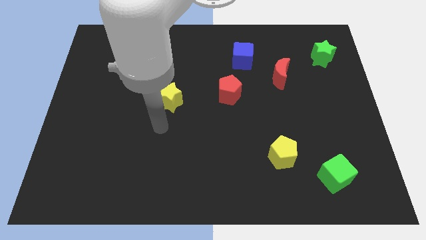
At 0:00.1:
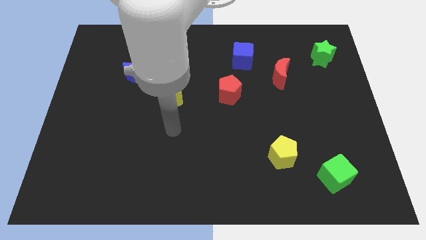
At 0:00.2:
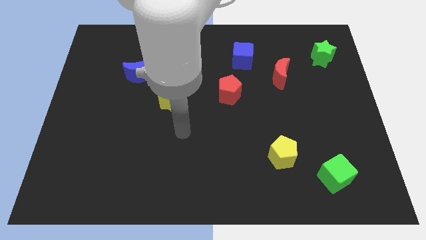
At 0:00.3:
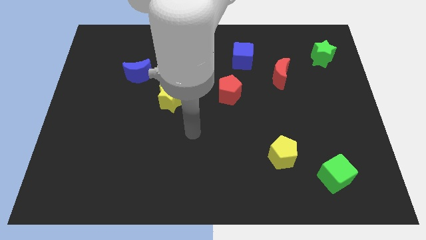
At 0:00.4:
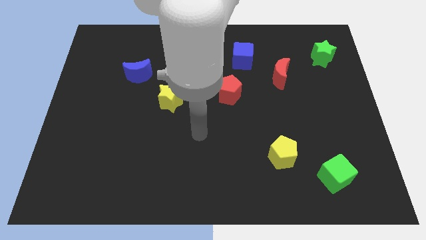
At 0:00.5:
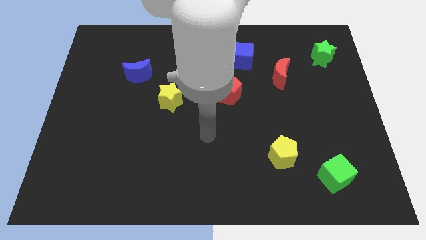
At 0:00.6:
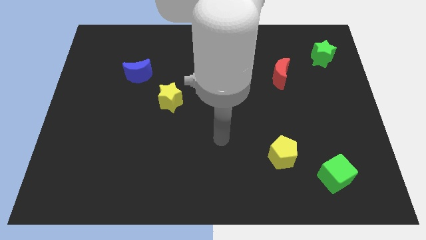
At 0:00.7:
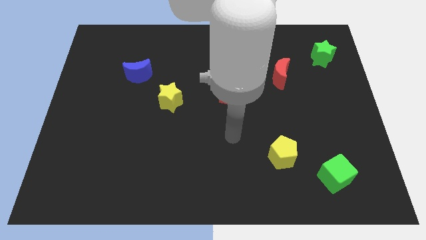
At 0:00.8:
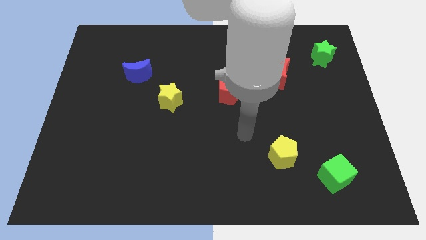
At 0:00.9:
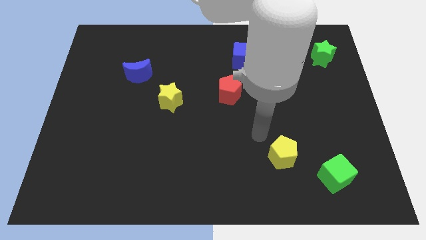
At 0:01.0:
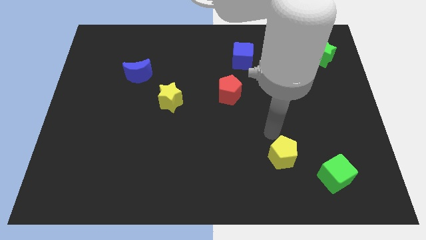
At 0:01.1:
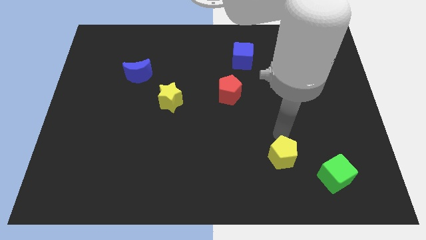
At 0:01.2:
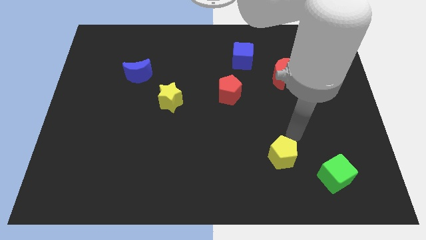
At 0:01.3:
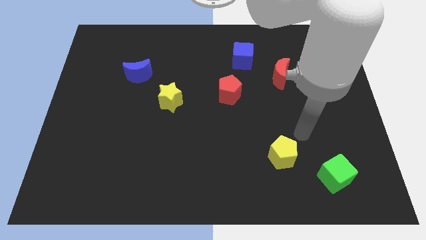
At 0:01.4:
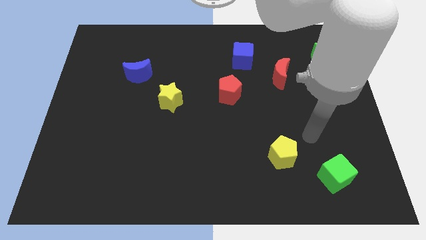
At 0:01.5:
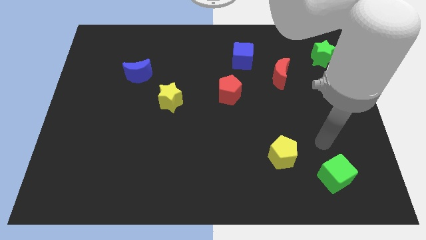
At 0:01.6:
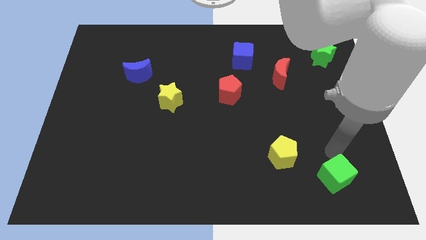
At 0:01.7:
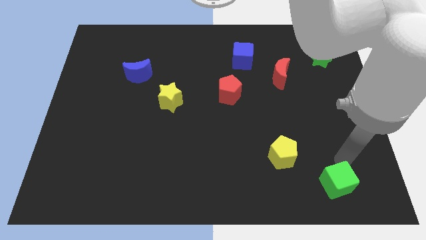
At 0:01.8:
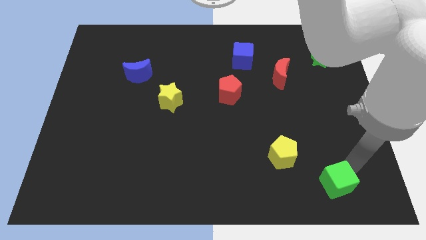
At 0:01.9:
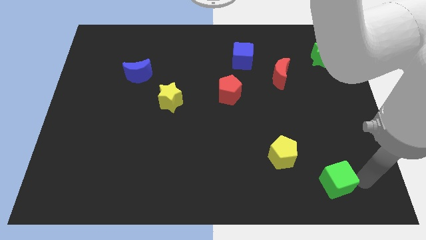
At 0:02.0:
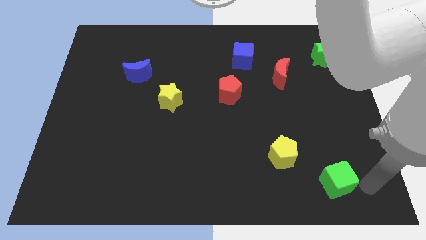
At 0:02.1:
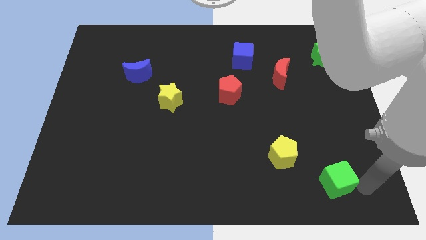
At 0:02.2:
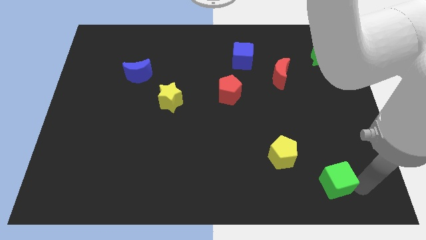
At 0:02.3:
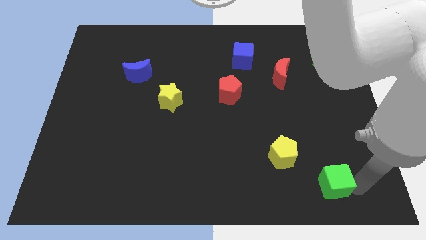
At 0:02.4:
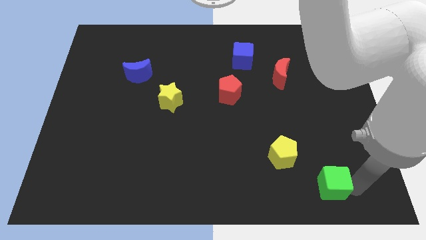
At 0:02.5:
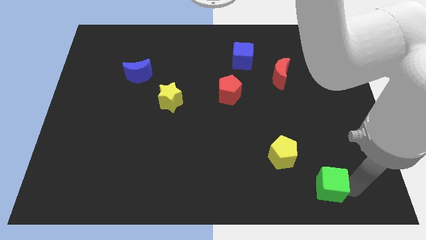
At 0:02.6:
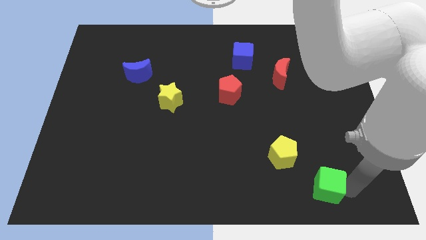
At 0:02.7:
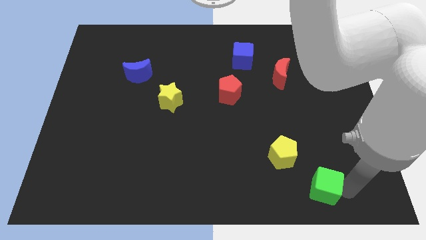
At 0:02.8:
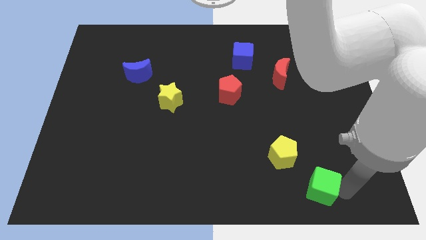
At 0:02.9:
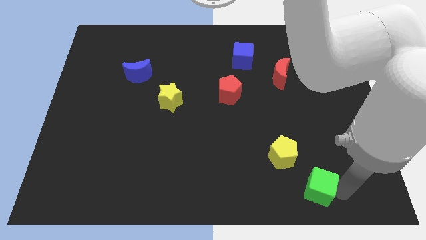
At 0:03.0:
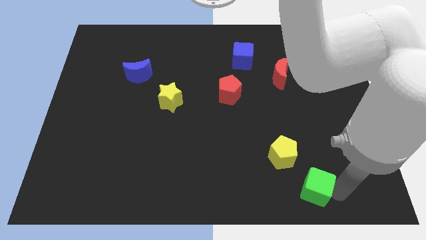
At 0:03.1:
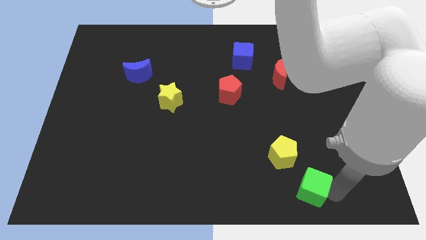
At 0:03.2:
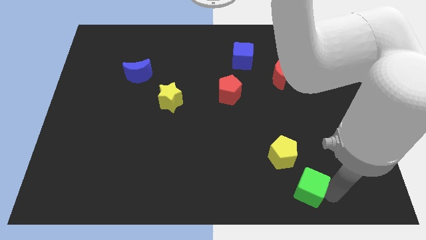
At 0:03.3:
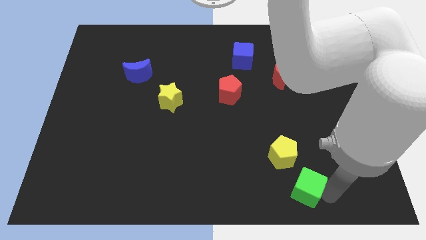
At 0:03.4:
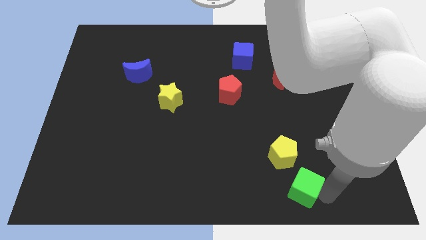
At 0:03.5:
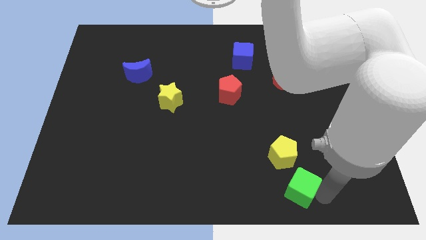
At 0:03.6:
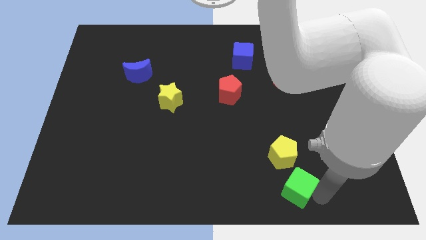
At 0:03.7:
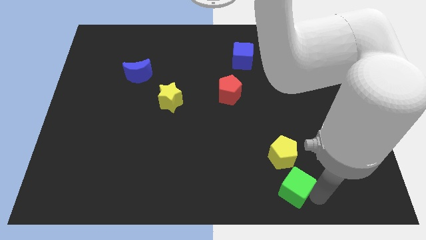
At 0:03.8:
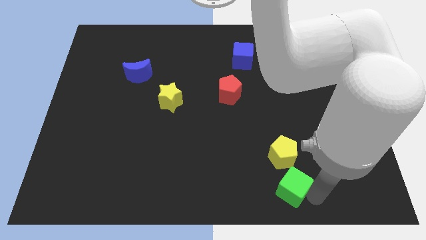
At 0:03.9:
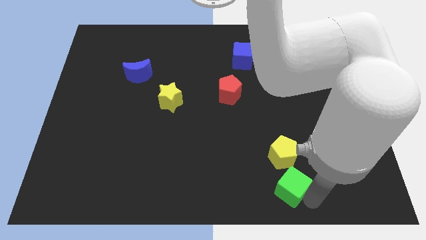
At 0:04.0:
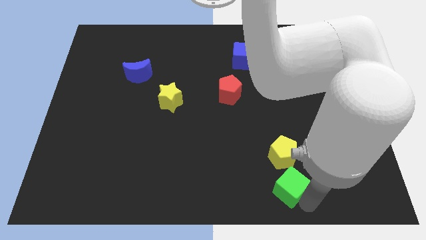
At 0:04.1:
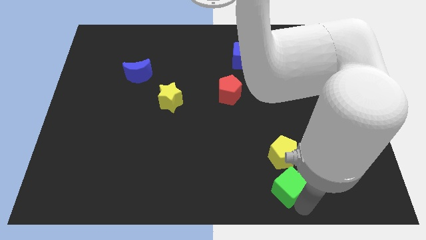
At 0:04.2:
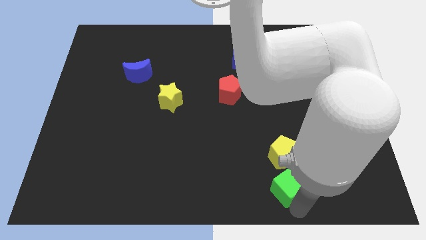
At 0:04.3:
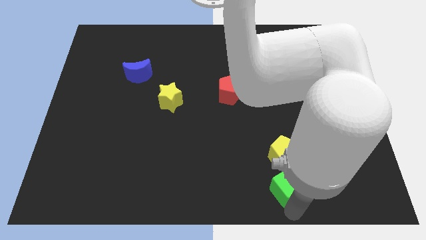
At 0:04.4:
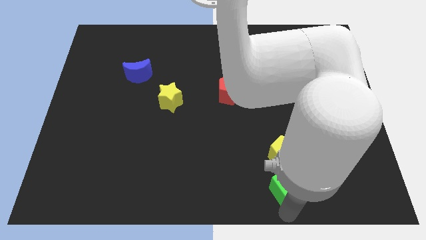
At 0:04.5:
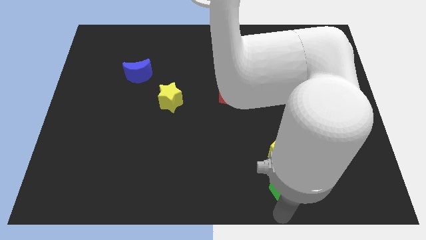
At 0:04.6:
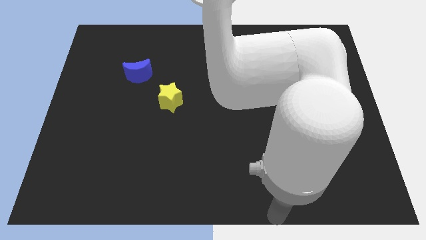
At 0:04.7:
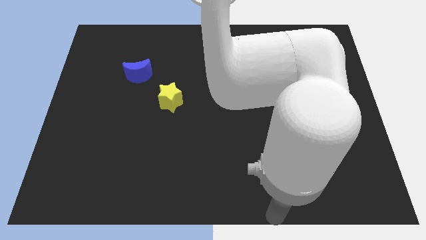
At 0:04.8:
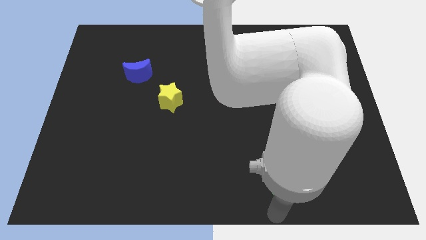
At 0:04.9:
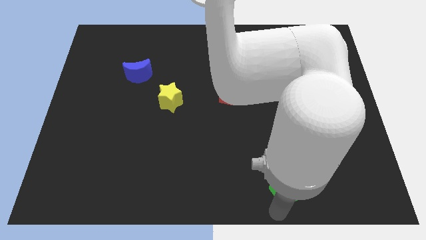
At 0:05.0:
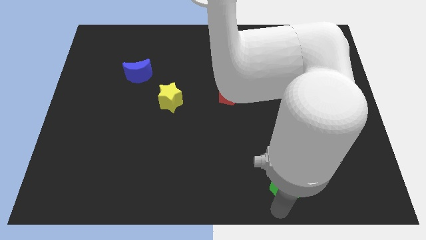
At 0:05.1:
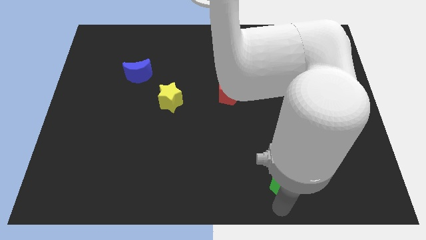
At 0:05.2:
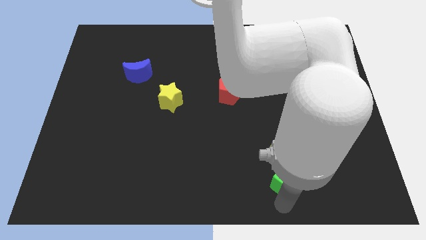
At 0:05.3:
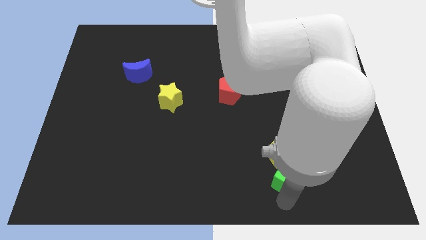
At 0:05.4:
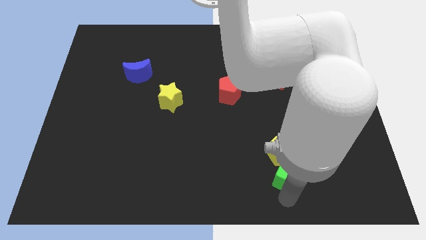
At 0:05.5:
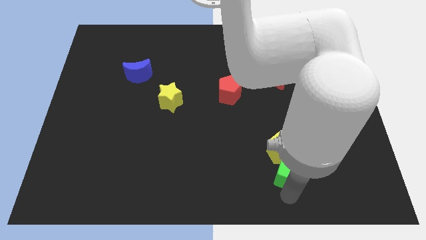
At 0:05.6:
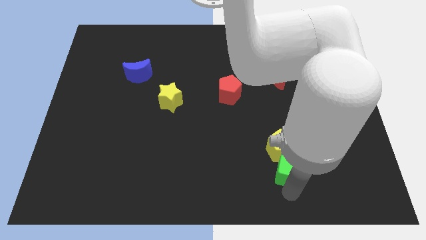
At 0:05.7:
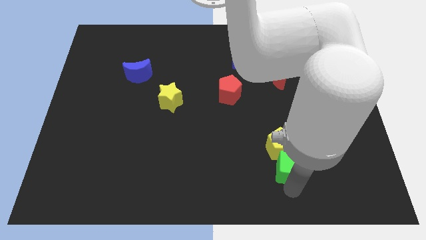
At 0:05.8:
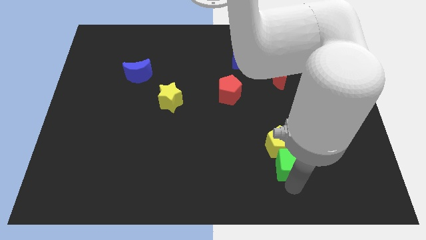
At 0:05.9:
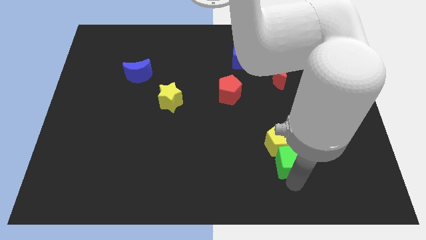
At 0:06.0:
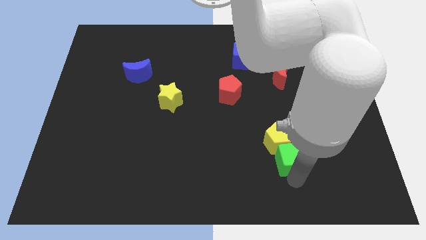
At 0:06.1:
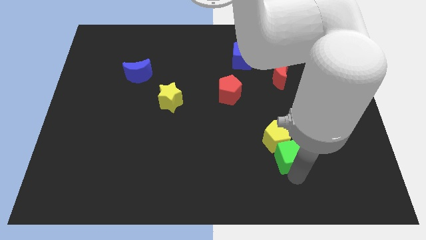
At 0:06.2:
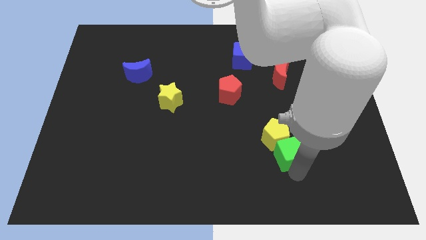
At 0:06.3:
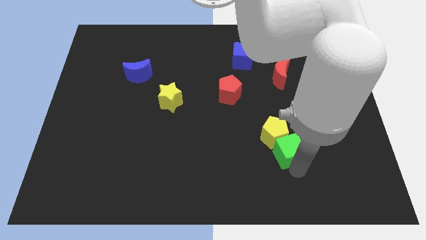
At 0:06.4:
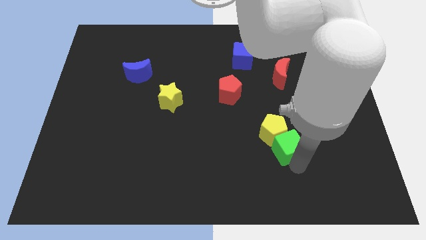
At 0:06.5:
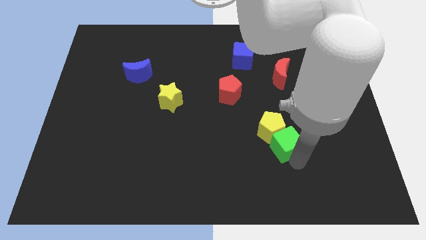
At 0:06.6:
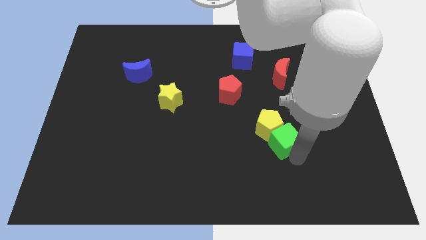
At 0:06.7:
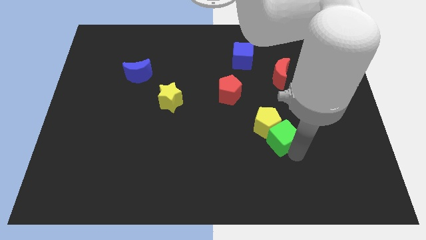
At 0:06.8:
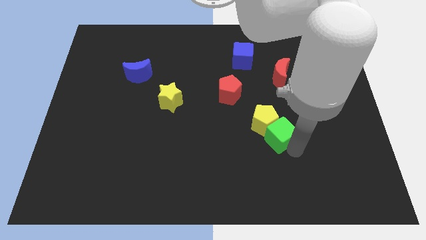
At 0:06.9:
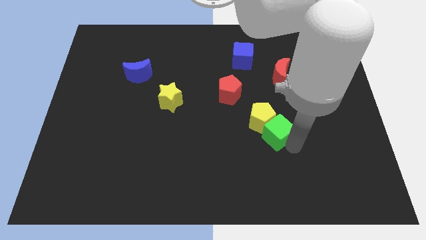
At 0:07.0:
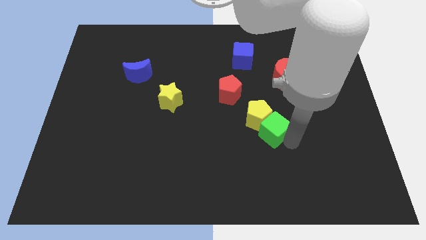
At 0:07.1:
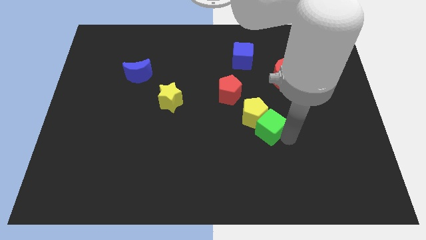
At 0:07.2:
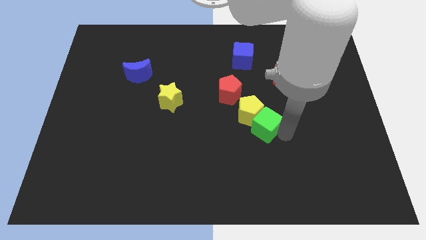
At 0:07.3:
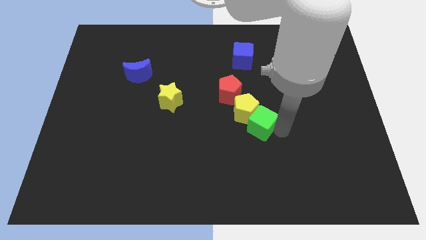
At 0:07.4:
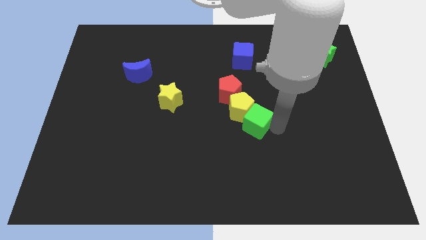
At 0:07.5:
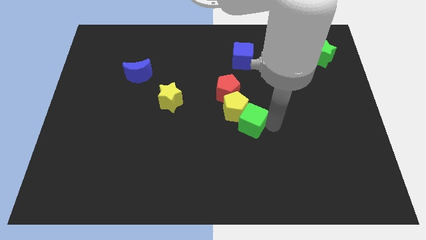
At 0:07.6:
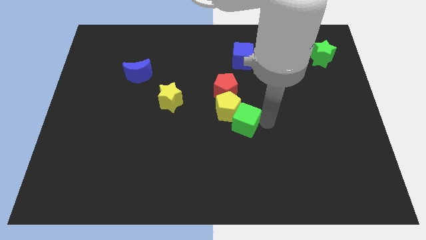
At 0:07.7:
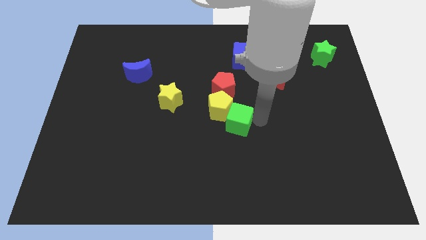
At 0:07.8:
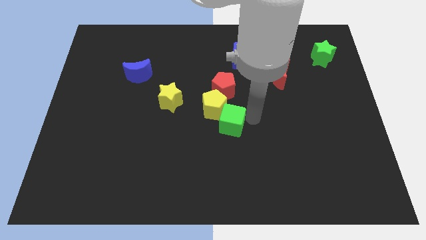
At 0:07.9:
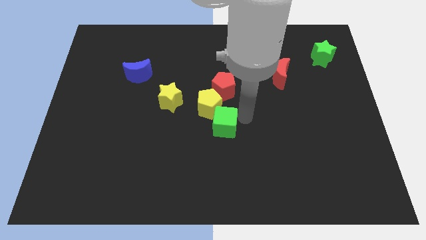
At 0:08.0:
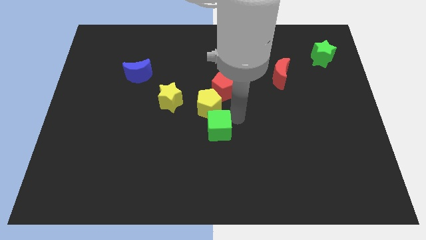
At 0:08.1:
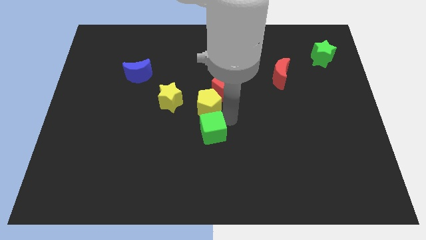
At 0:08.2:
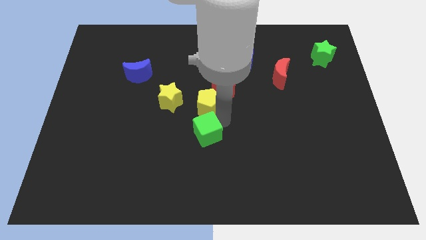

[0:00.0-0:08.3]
move the green cube left
